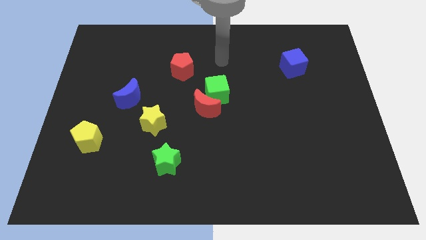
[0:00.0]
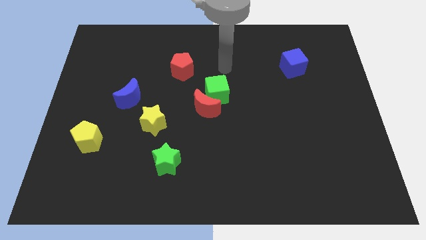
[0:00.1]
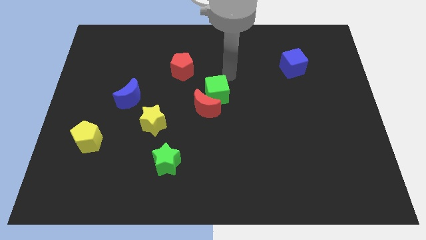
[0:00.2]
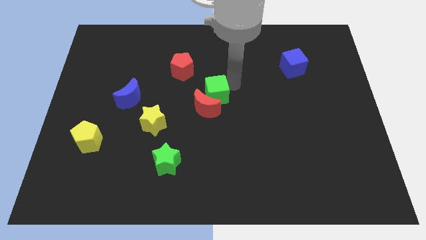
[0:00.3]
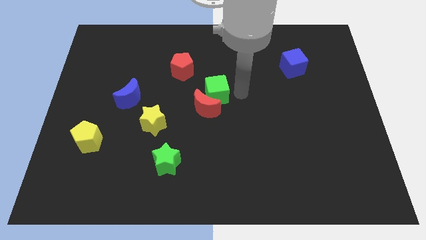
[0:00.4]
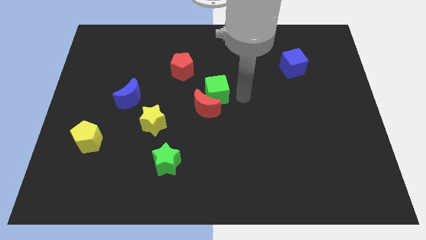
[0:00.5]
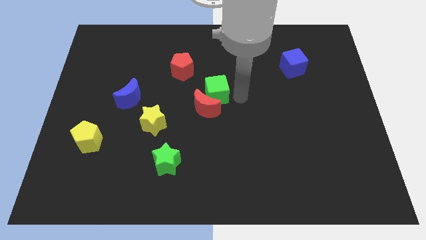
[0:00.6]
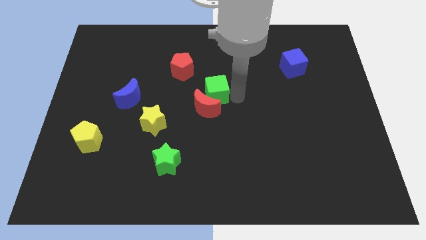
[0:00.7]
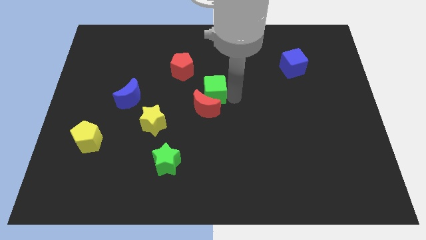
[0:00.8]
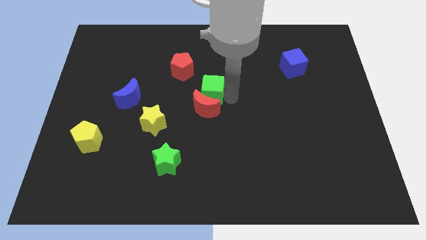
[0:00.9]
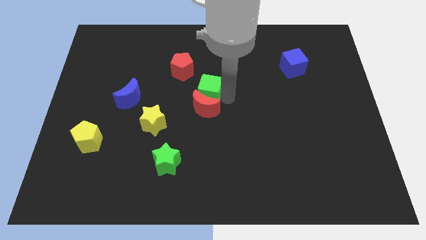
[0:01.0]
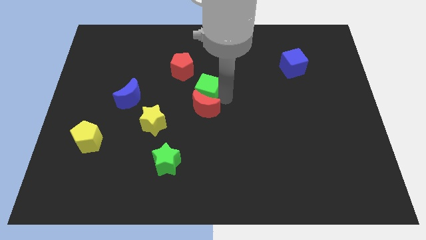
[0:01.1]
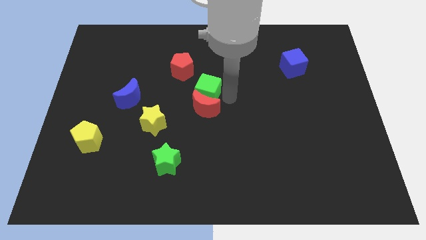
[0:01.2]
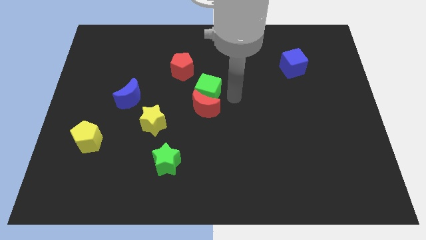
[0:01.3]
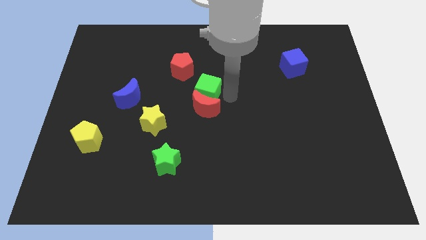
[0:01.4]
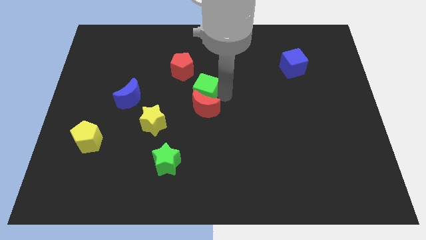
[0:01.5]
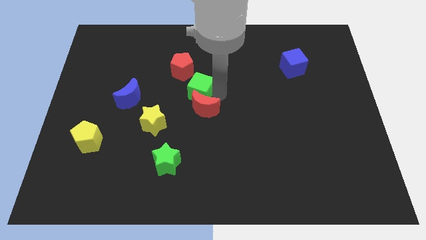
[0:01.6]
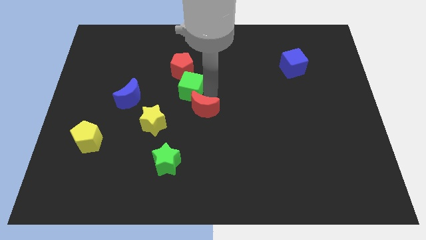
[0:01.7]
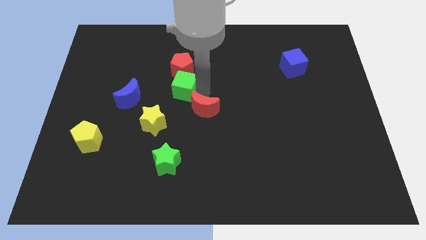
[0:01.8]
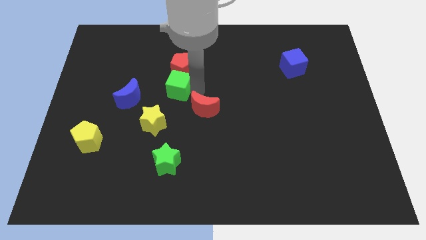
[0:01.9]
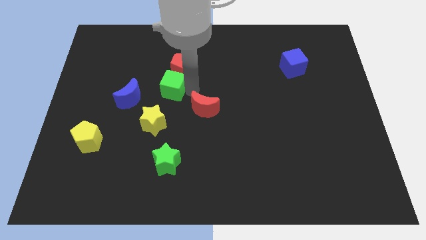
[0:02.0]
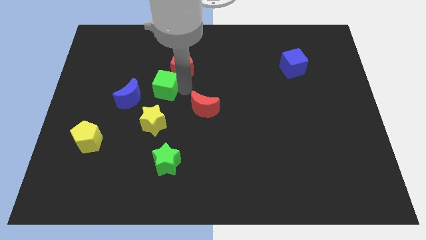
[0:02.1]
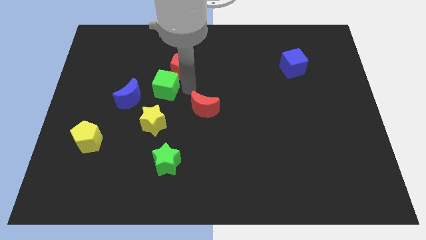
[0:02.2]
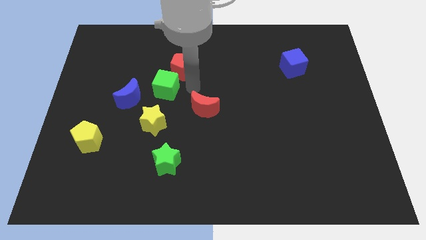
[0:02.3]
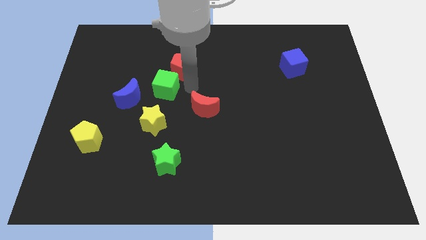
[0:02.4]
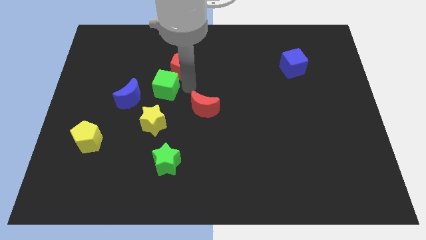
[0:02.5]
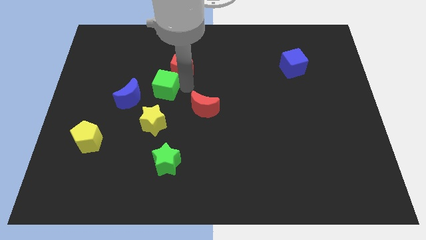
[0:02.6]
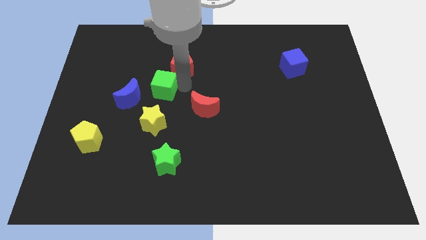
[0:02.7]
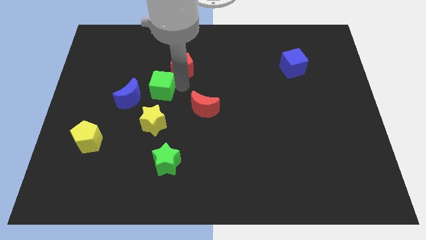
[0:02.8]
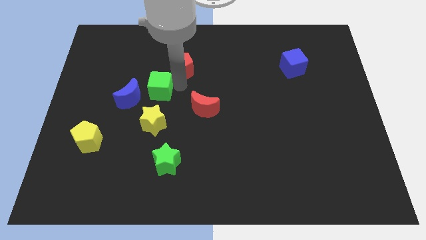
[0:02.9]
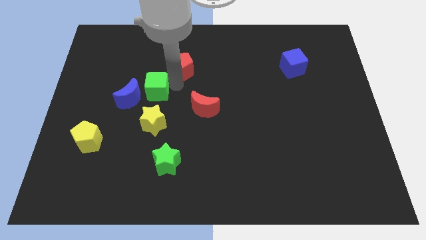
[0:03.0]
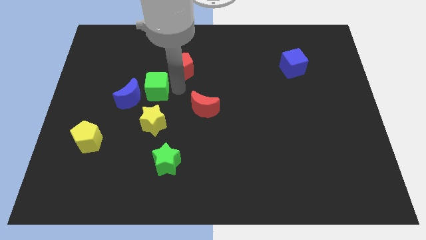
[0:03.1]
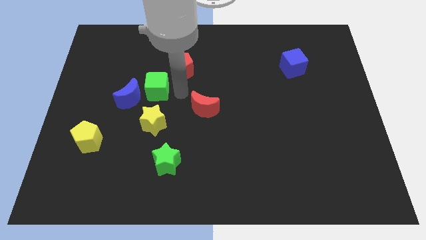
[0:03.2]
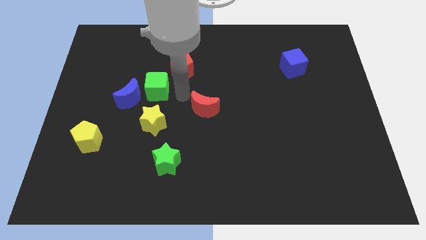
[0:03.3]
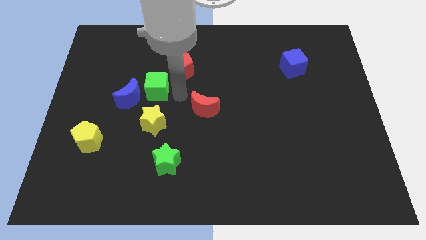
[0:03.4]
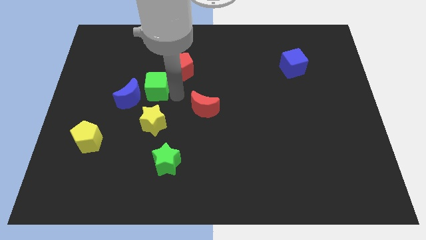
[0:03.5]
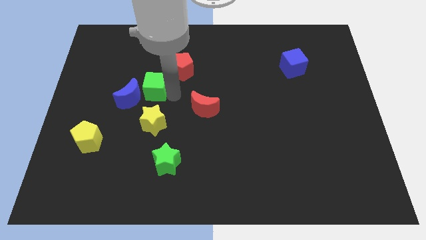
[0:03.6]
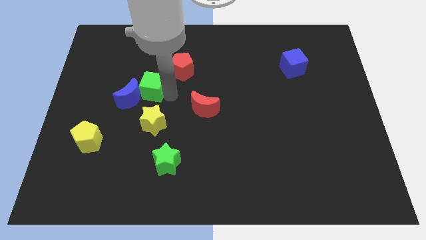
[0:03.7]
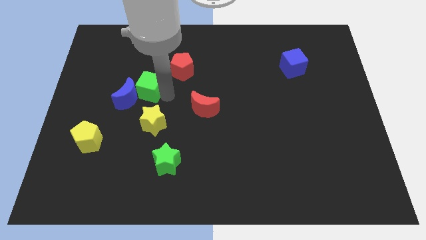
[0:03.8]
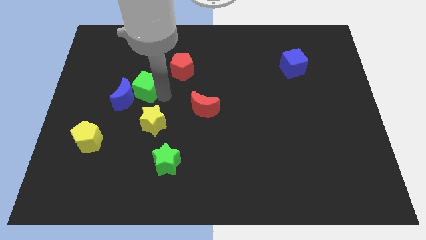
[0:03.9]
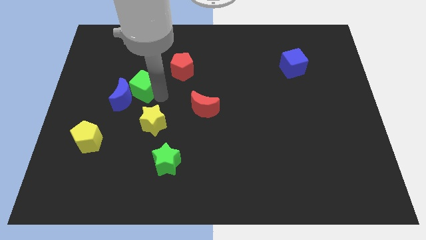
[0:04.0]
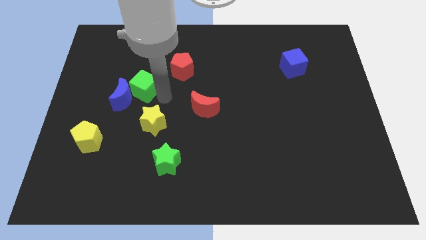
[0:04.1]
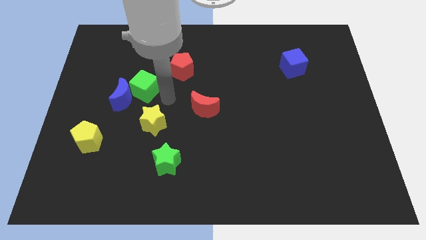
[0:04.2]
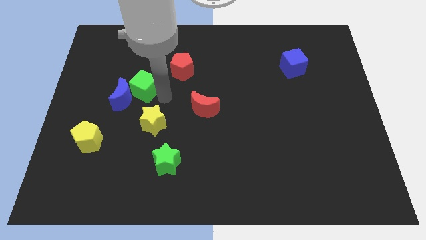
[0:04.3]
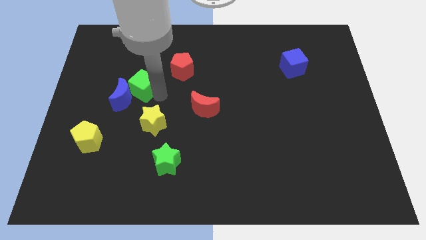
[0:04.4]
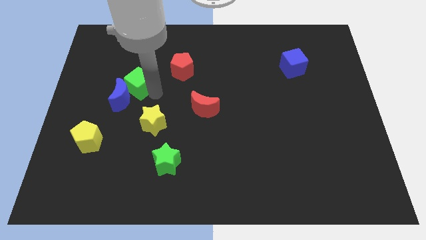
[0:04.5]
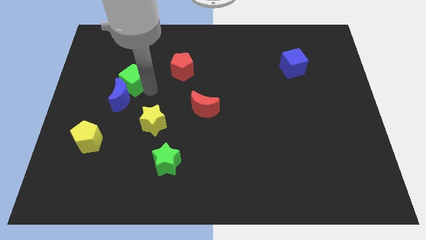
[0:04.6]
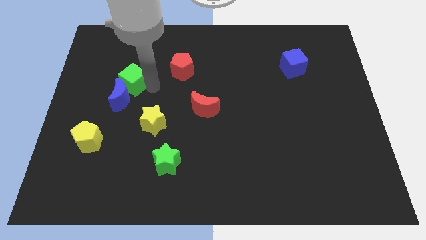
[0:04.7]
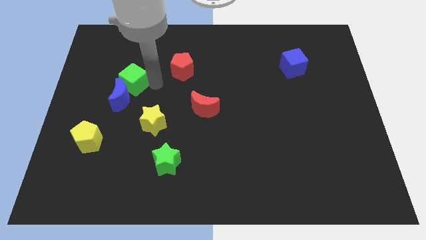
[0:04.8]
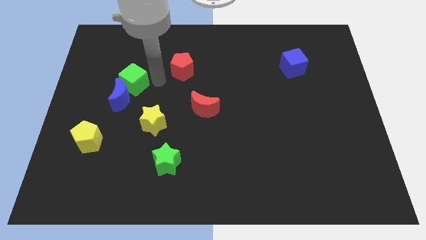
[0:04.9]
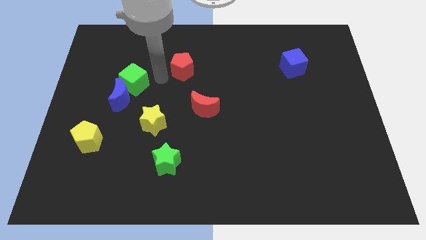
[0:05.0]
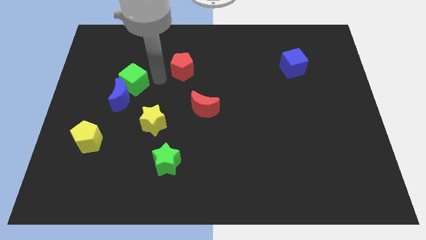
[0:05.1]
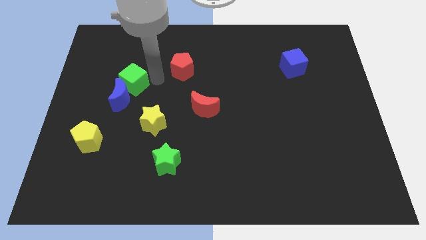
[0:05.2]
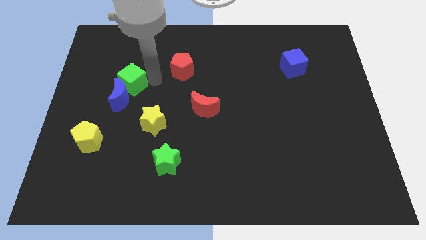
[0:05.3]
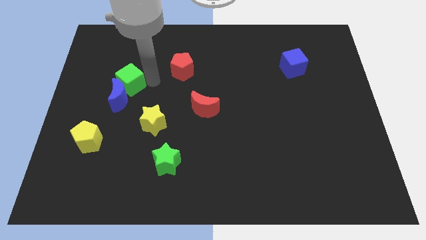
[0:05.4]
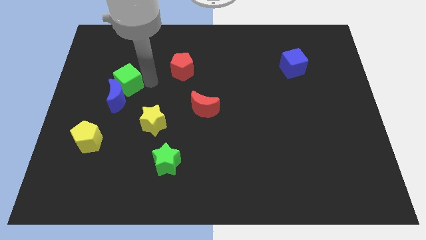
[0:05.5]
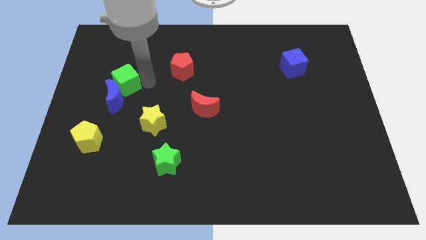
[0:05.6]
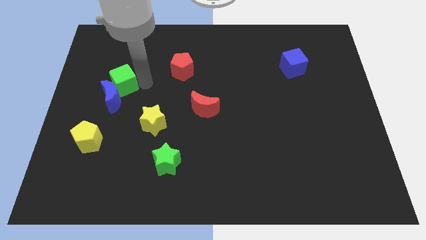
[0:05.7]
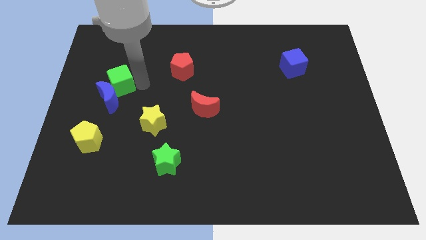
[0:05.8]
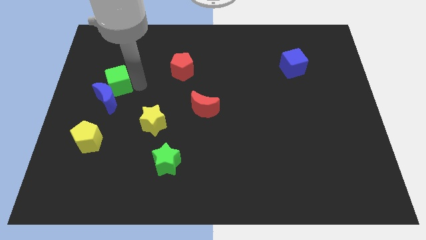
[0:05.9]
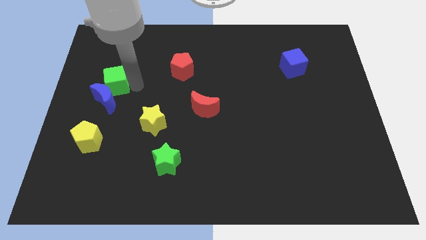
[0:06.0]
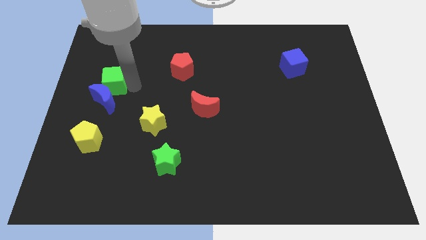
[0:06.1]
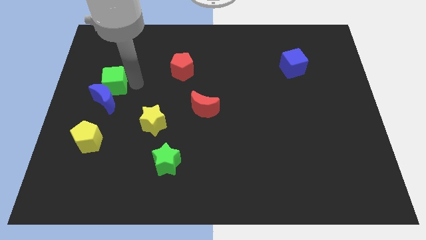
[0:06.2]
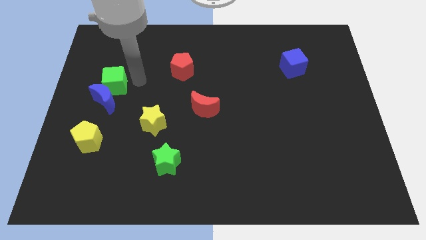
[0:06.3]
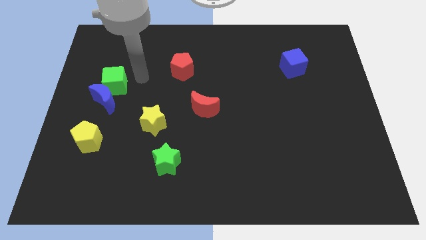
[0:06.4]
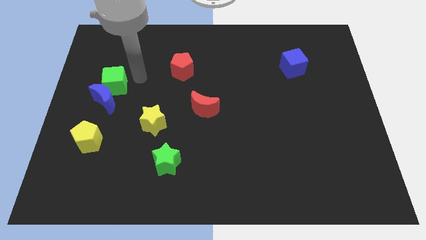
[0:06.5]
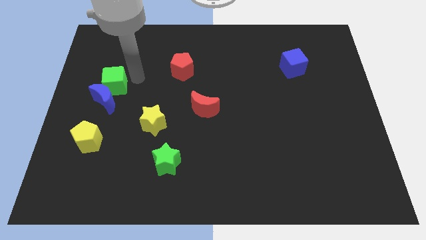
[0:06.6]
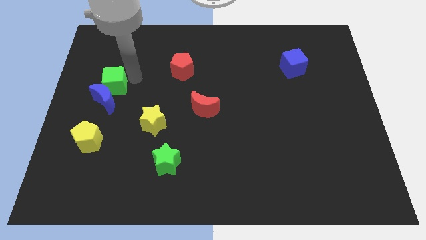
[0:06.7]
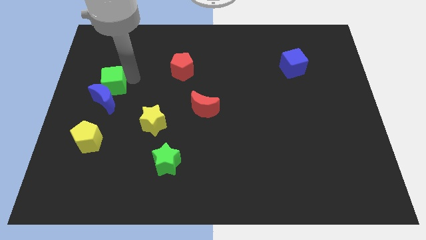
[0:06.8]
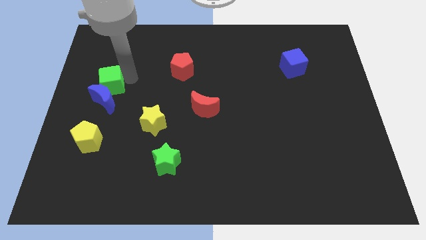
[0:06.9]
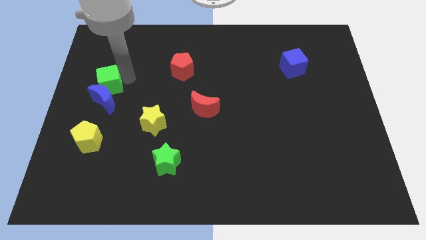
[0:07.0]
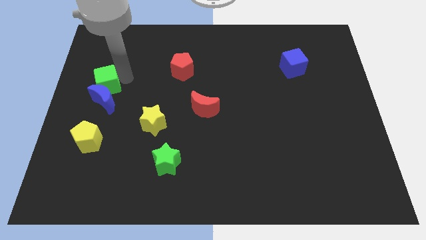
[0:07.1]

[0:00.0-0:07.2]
put the green cube to the left side of the board

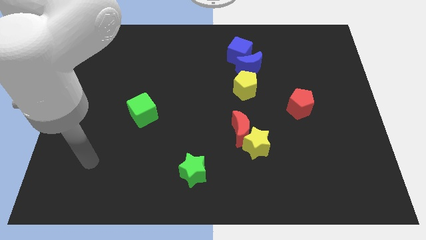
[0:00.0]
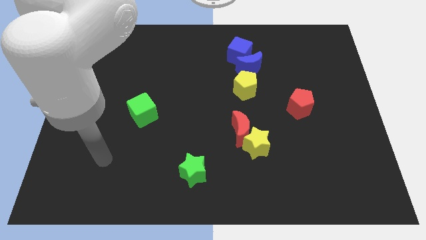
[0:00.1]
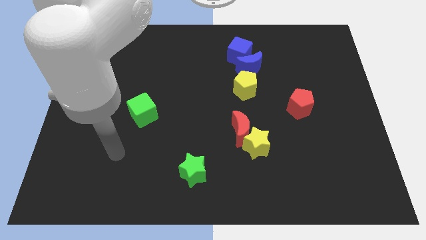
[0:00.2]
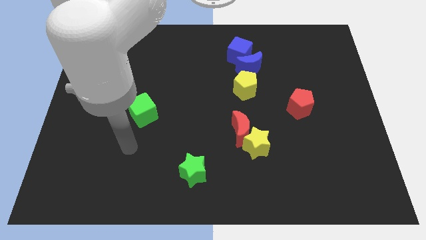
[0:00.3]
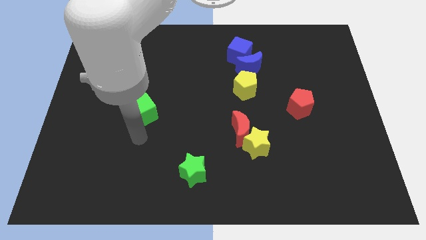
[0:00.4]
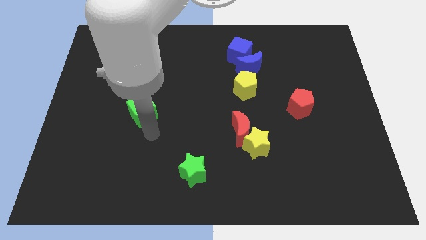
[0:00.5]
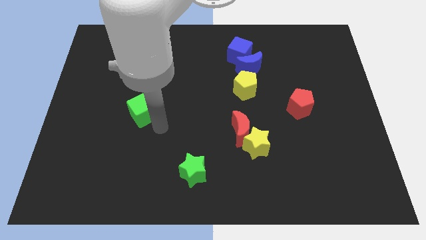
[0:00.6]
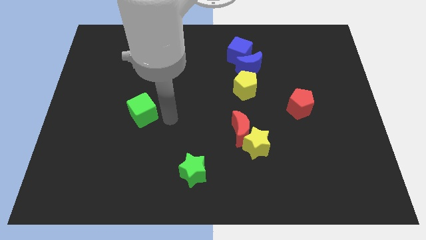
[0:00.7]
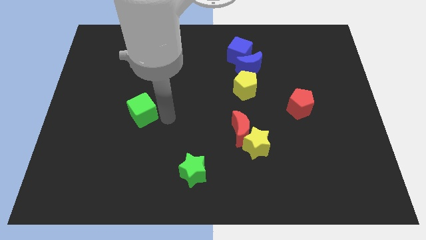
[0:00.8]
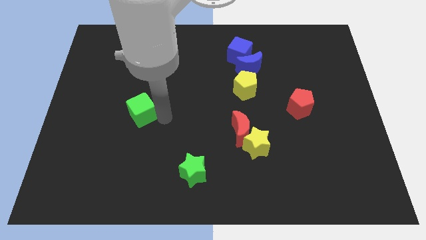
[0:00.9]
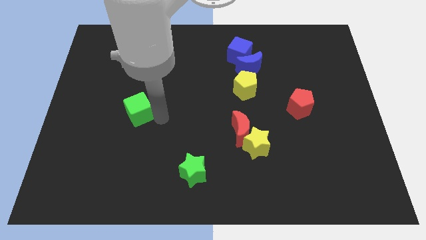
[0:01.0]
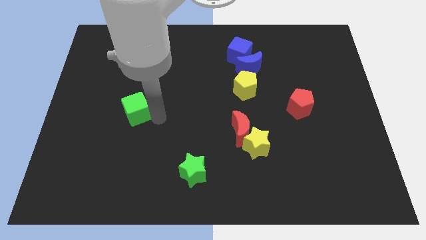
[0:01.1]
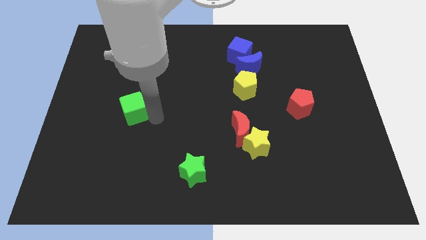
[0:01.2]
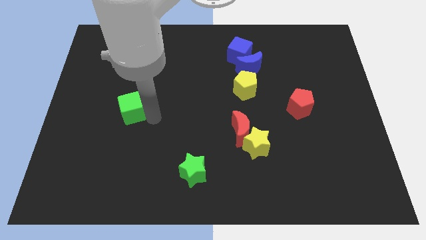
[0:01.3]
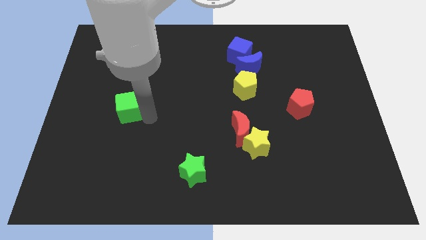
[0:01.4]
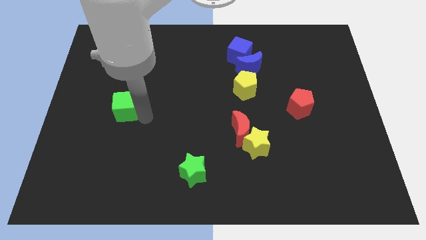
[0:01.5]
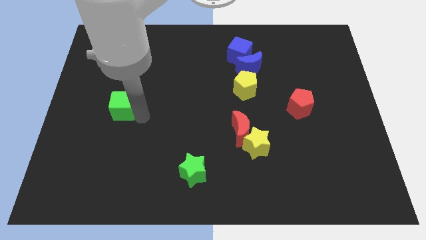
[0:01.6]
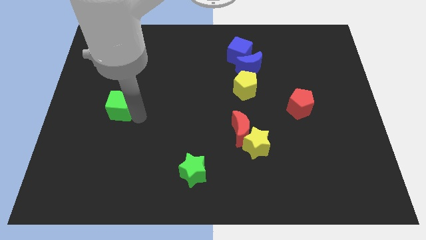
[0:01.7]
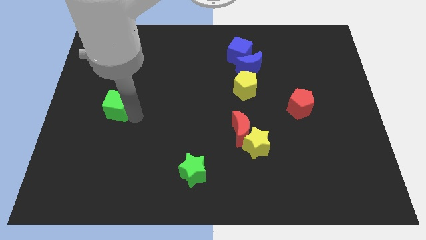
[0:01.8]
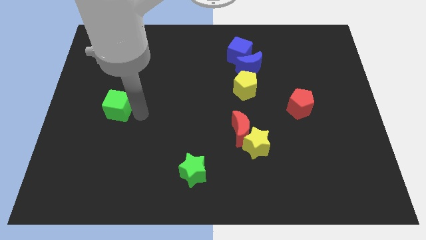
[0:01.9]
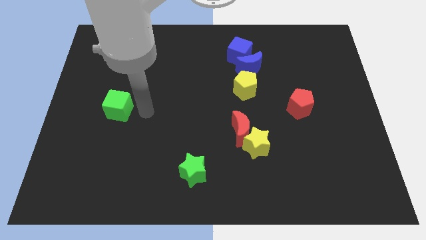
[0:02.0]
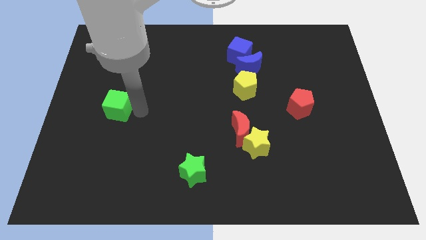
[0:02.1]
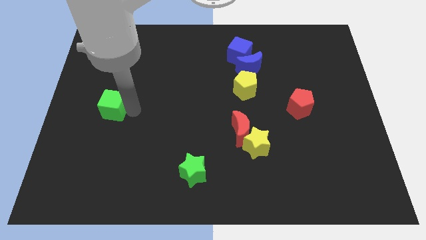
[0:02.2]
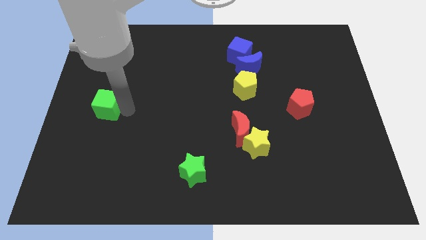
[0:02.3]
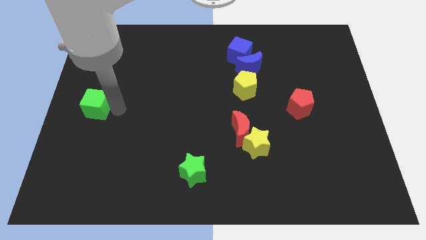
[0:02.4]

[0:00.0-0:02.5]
push the green cube to the left side of the board
